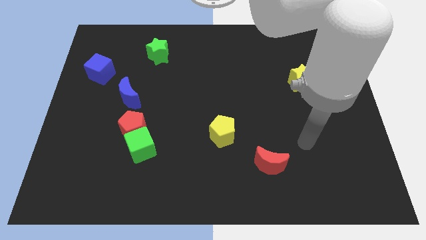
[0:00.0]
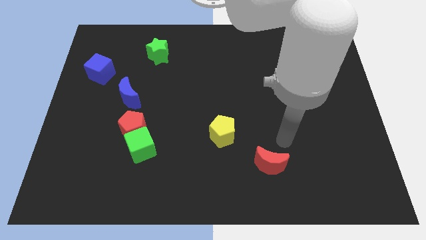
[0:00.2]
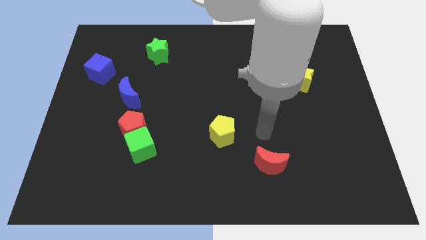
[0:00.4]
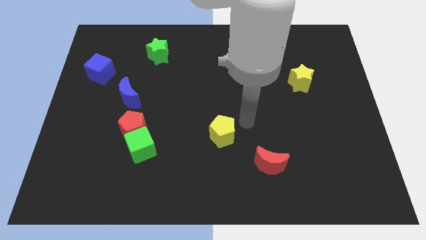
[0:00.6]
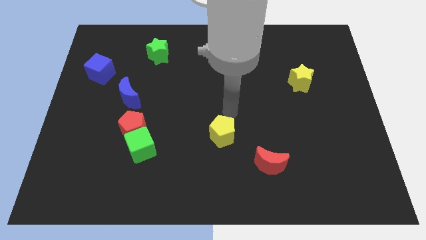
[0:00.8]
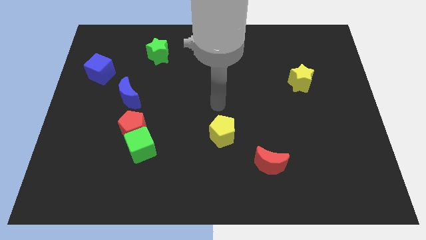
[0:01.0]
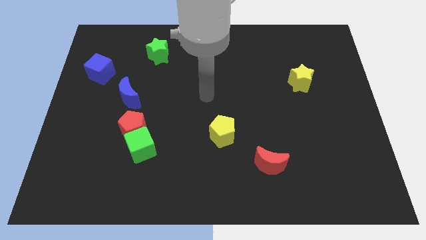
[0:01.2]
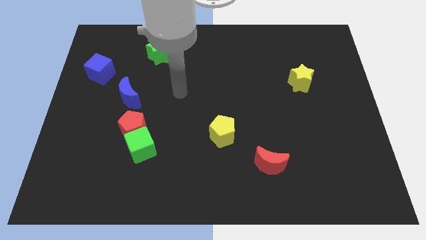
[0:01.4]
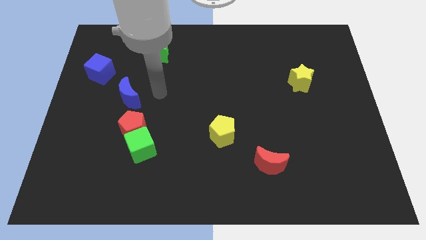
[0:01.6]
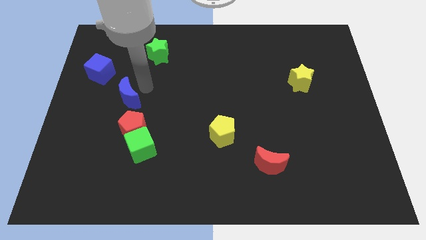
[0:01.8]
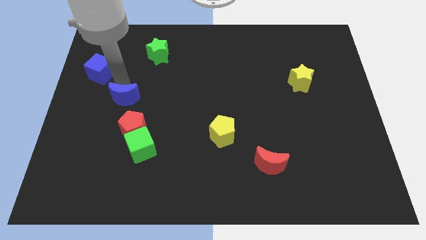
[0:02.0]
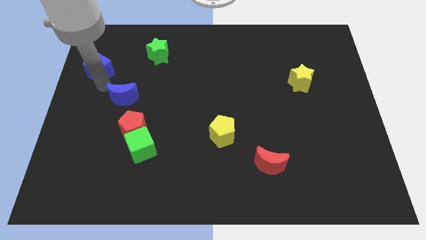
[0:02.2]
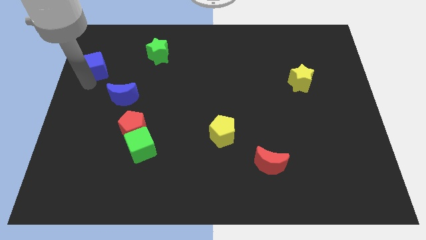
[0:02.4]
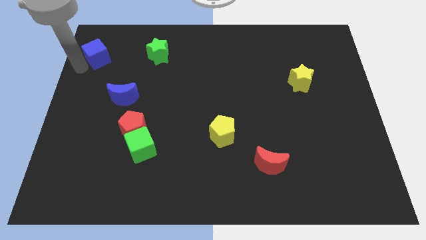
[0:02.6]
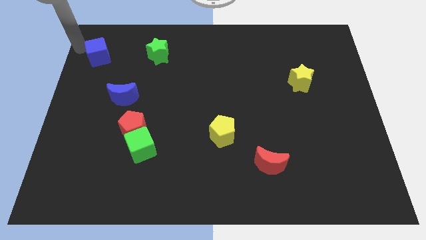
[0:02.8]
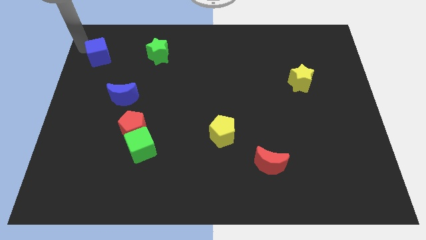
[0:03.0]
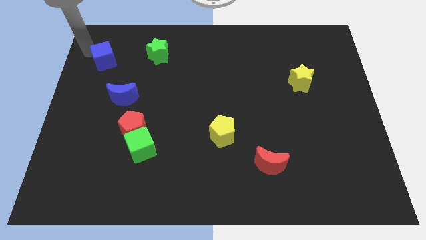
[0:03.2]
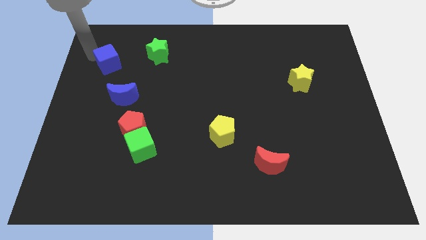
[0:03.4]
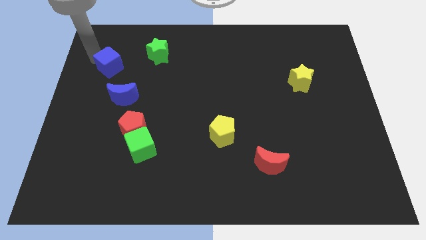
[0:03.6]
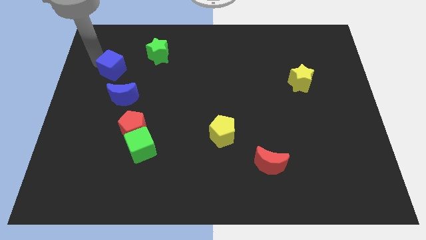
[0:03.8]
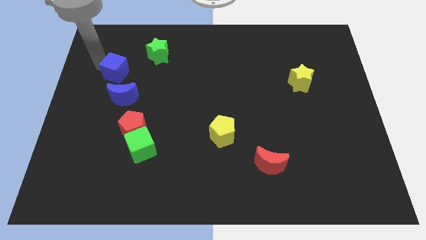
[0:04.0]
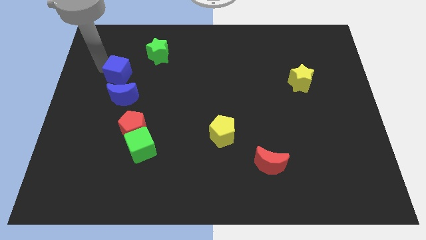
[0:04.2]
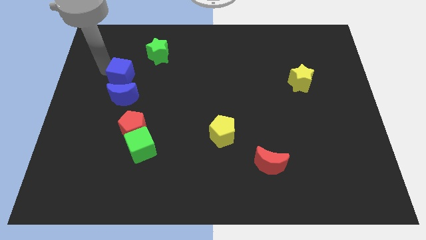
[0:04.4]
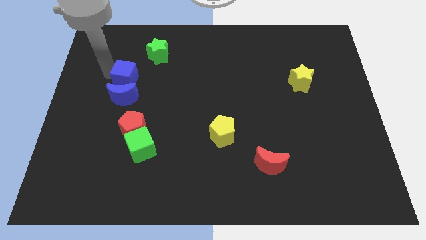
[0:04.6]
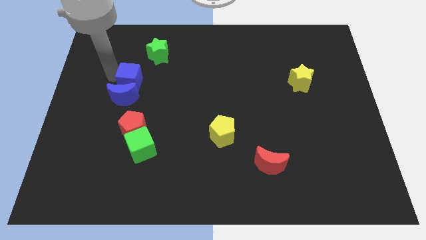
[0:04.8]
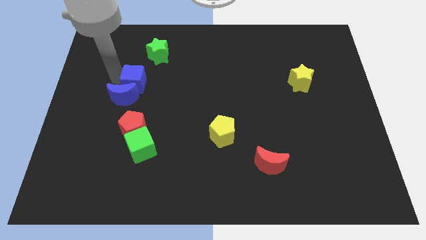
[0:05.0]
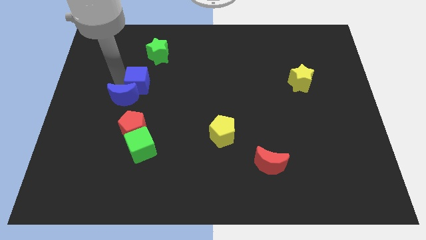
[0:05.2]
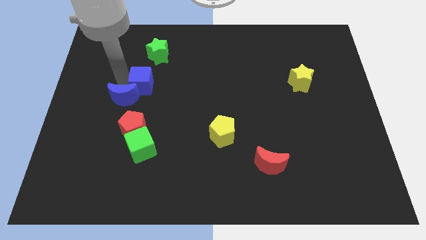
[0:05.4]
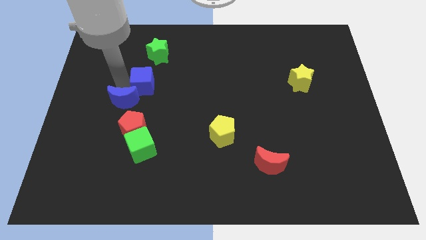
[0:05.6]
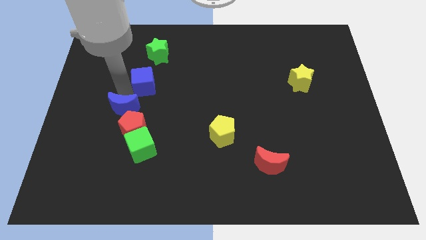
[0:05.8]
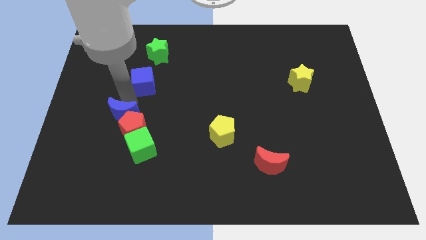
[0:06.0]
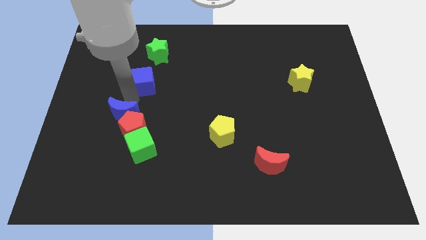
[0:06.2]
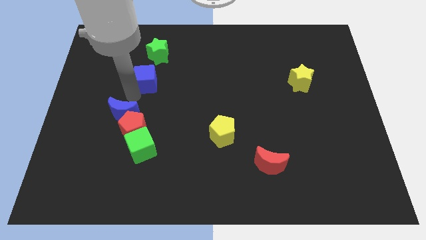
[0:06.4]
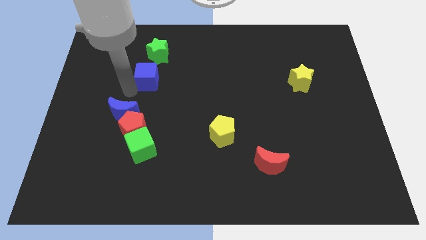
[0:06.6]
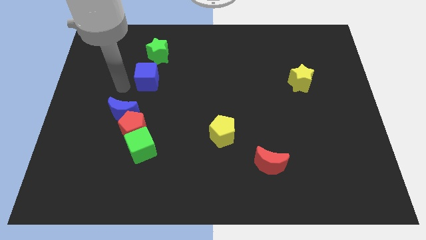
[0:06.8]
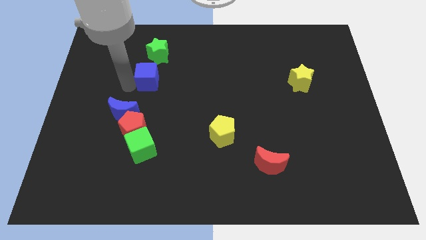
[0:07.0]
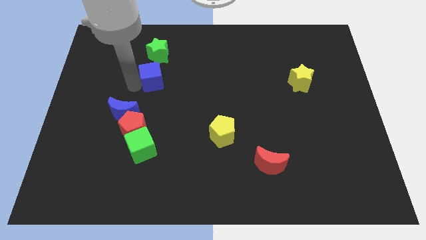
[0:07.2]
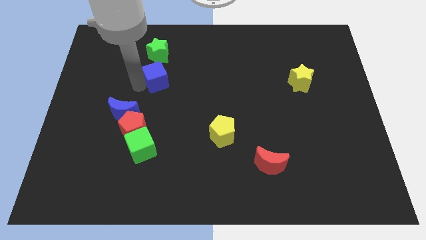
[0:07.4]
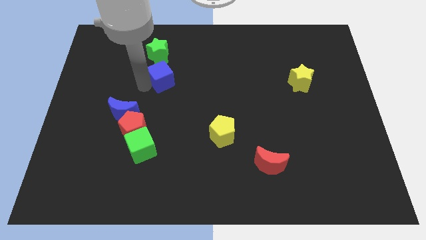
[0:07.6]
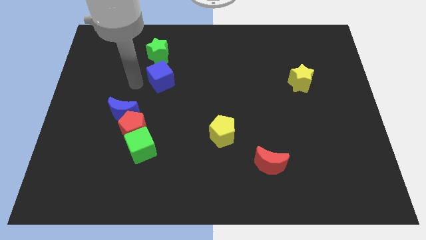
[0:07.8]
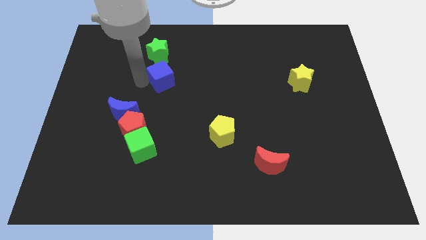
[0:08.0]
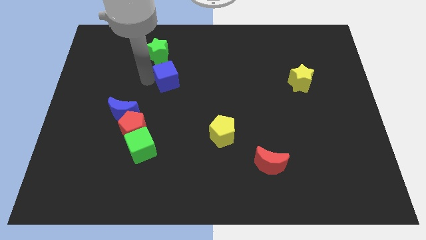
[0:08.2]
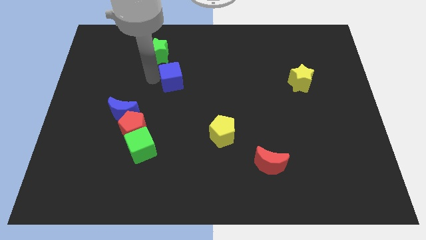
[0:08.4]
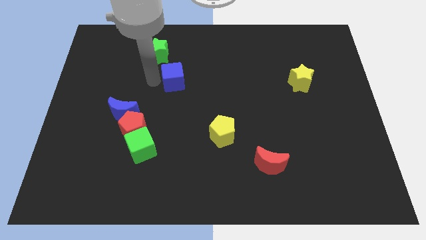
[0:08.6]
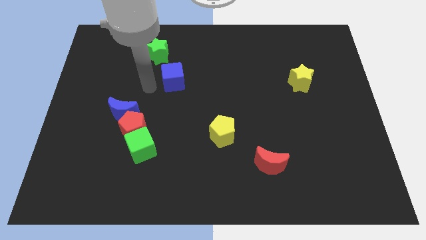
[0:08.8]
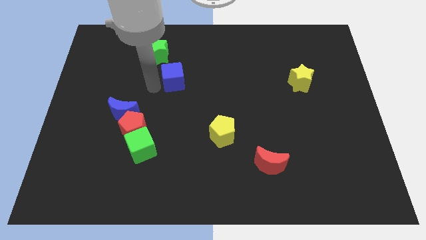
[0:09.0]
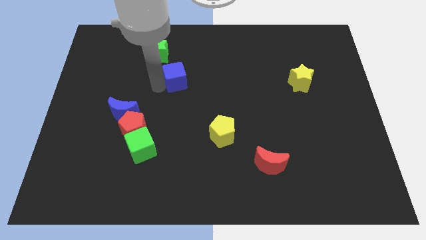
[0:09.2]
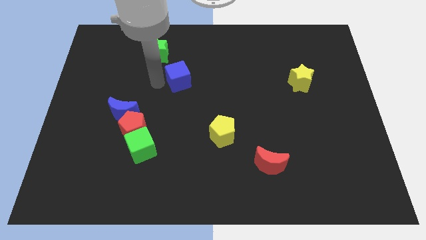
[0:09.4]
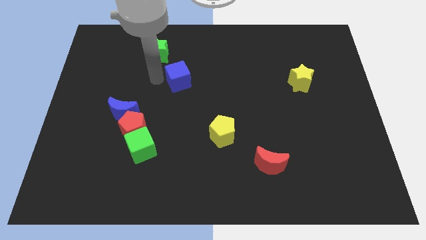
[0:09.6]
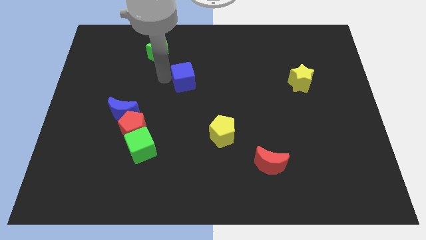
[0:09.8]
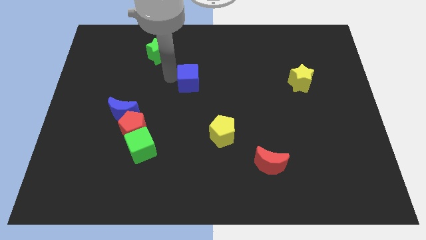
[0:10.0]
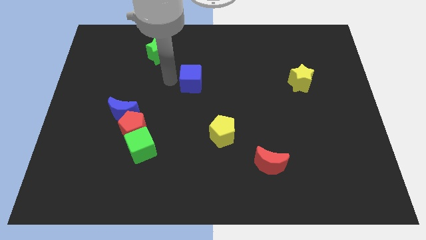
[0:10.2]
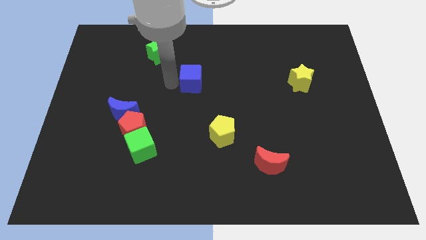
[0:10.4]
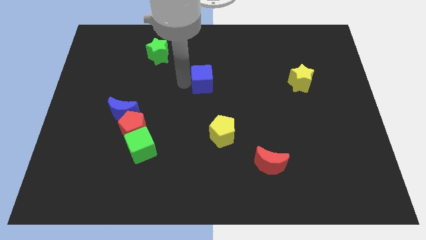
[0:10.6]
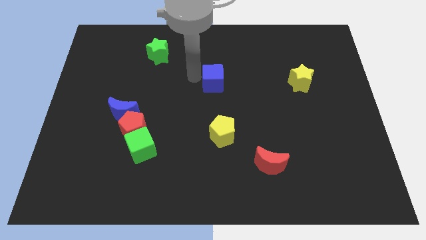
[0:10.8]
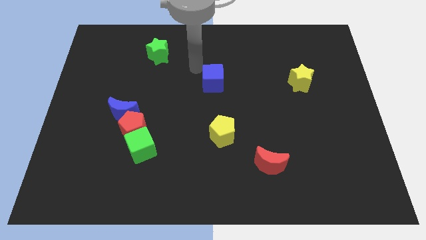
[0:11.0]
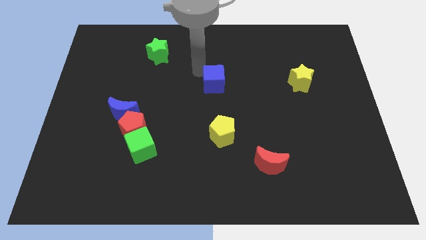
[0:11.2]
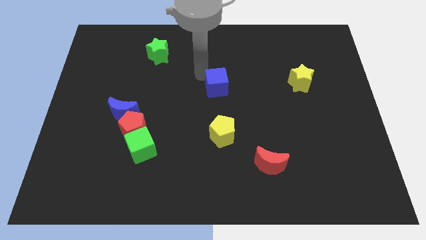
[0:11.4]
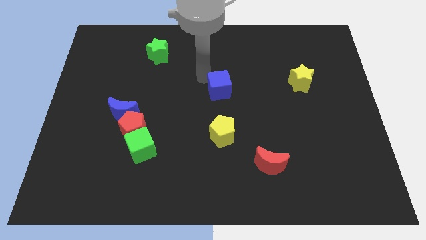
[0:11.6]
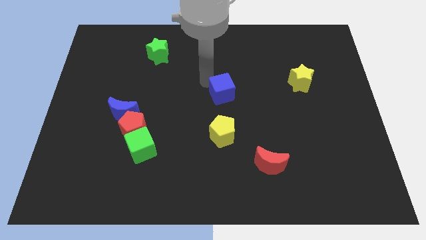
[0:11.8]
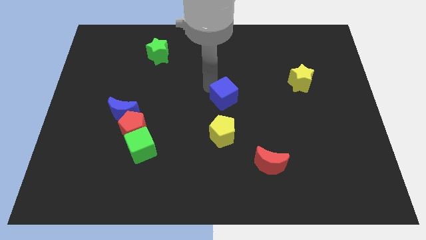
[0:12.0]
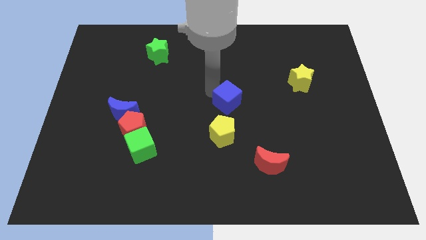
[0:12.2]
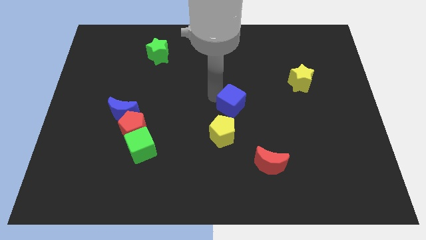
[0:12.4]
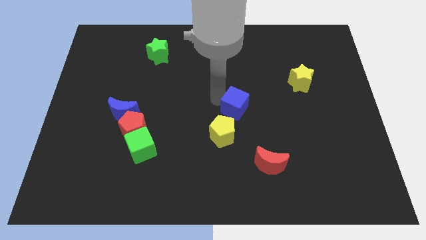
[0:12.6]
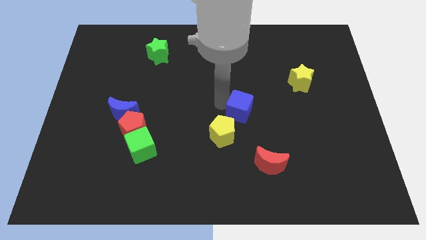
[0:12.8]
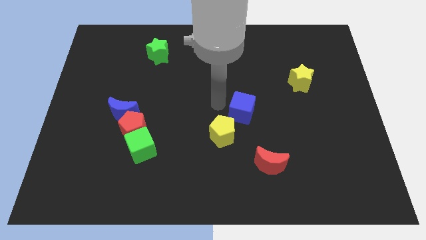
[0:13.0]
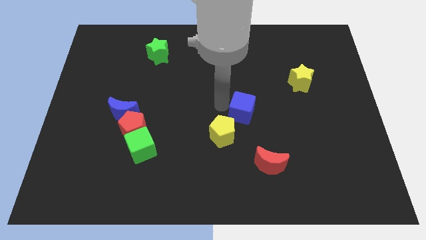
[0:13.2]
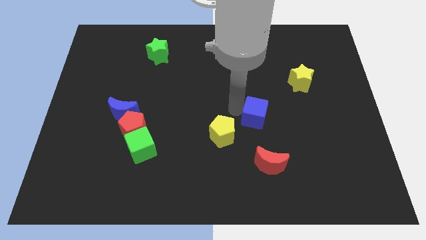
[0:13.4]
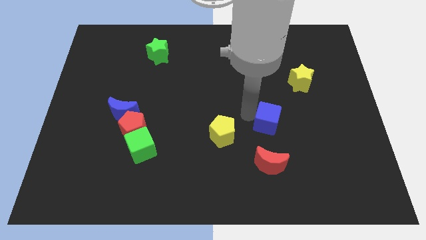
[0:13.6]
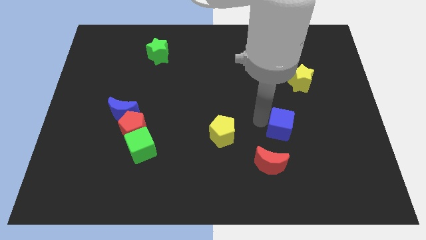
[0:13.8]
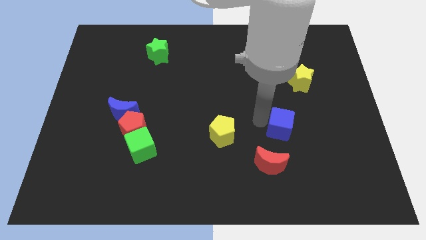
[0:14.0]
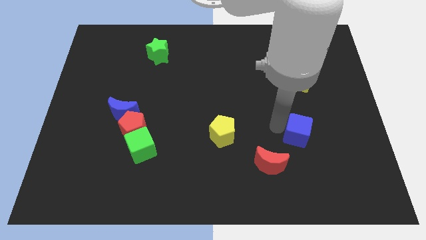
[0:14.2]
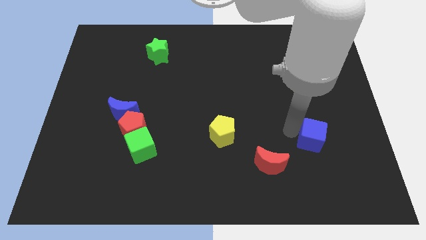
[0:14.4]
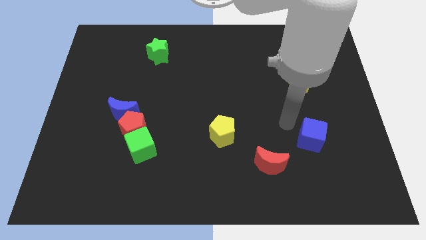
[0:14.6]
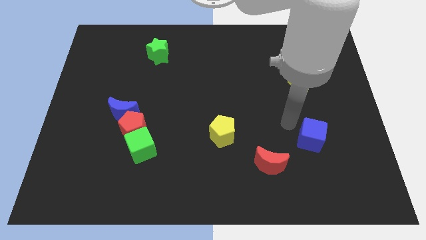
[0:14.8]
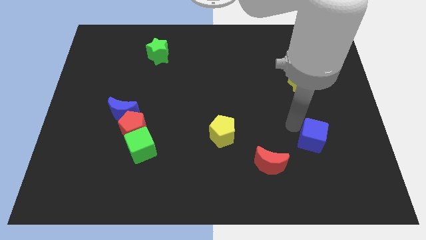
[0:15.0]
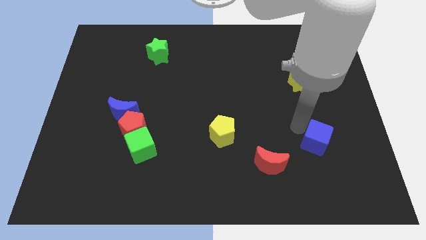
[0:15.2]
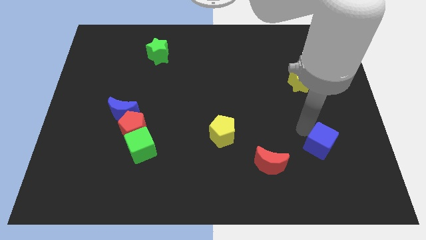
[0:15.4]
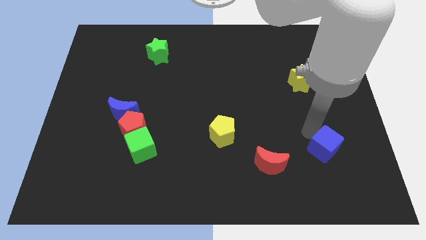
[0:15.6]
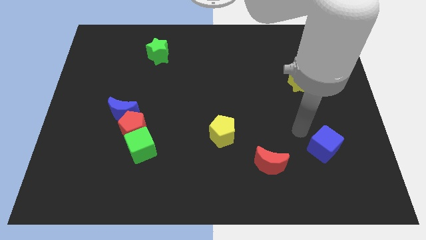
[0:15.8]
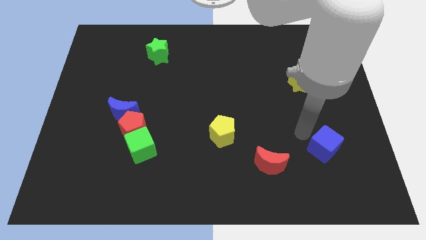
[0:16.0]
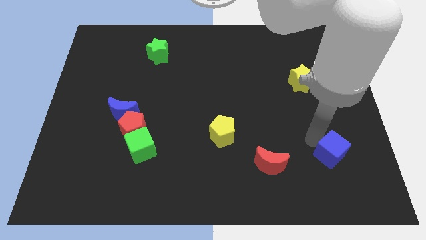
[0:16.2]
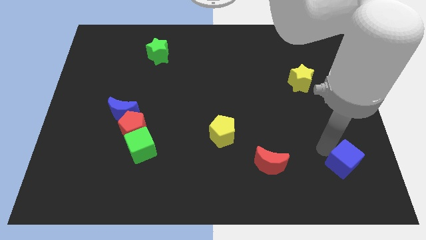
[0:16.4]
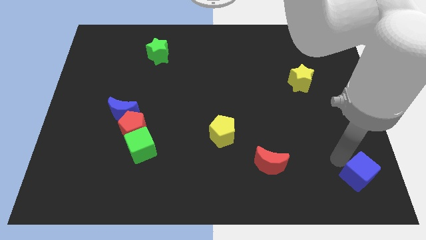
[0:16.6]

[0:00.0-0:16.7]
move the blue cube to the bottom right
